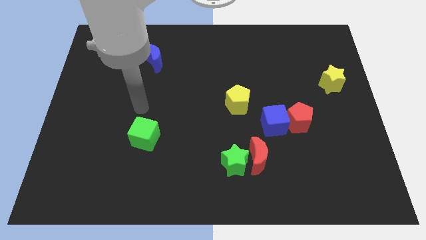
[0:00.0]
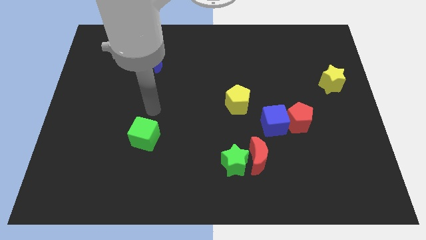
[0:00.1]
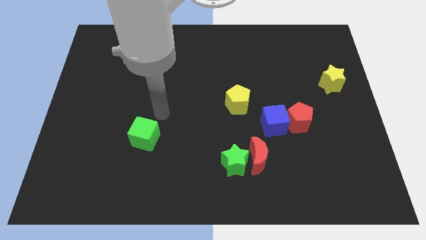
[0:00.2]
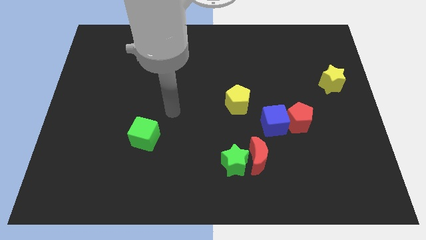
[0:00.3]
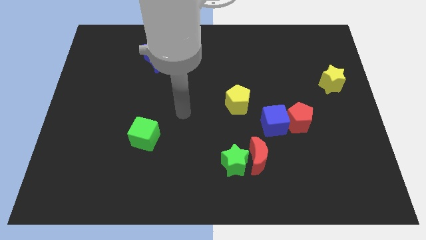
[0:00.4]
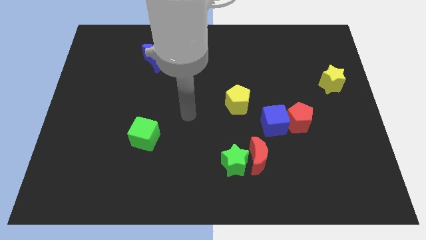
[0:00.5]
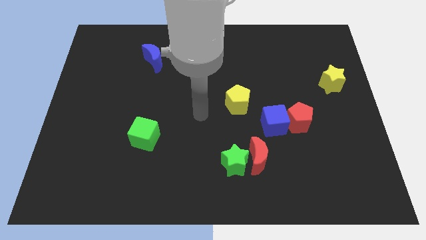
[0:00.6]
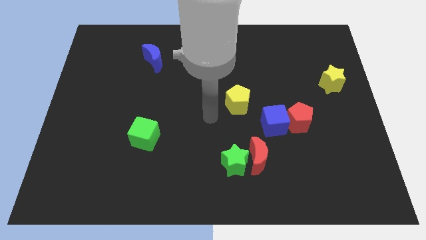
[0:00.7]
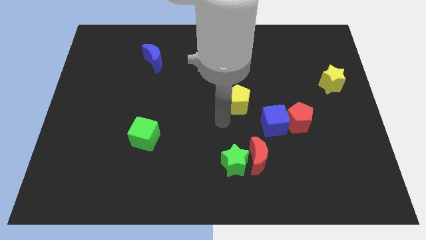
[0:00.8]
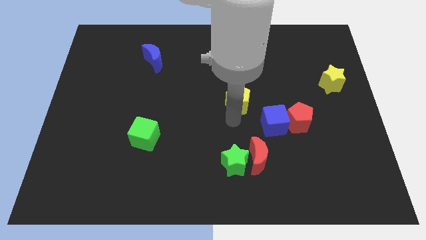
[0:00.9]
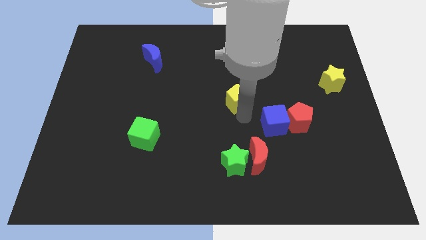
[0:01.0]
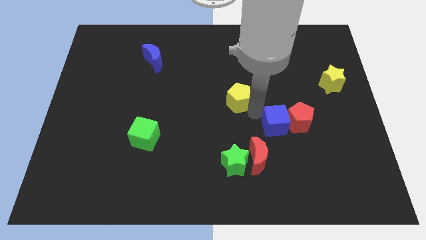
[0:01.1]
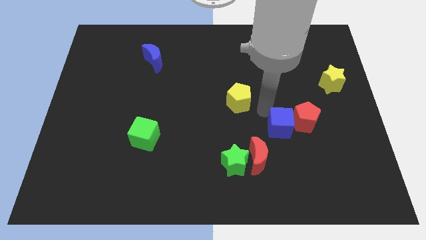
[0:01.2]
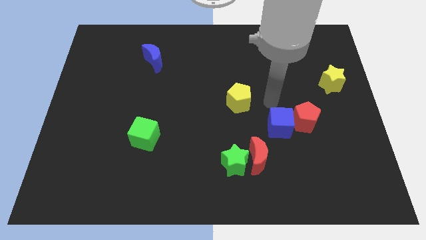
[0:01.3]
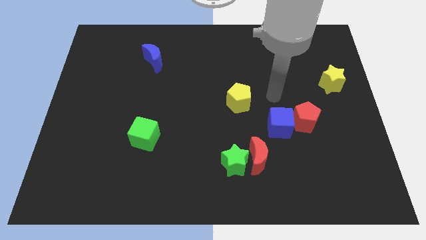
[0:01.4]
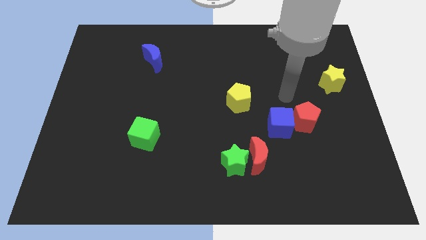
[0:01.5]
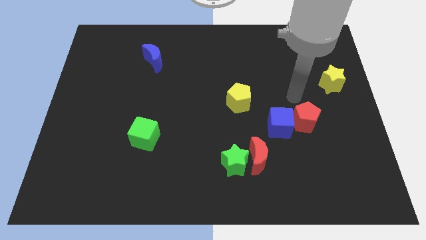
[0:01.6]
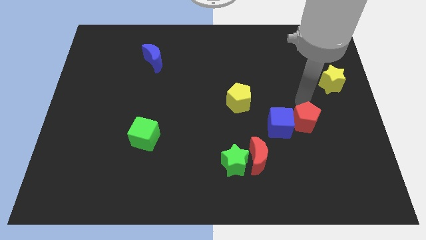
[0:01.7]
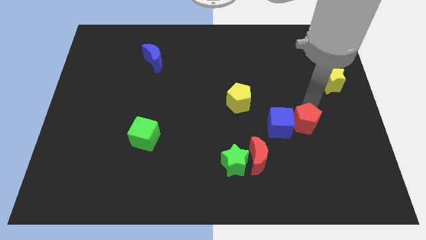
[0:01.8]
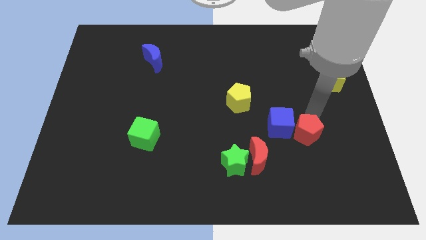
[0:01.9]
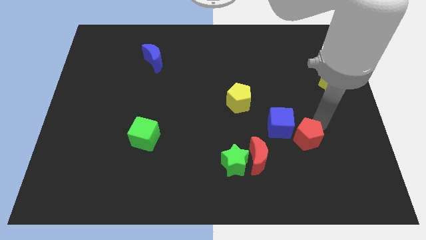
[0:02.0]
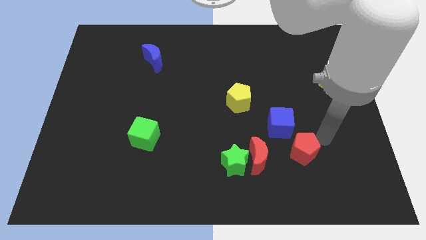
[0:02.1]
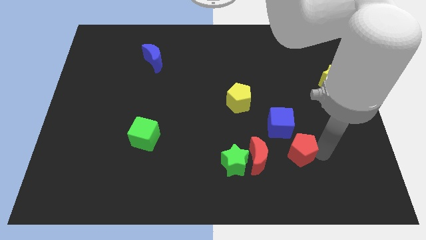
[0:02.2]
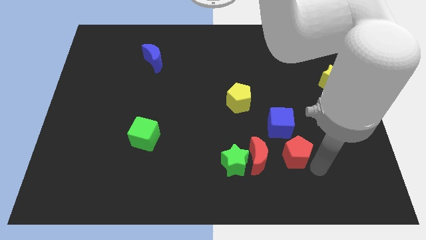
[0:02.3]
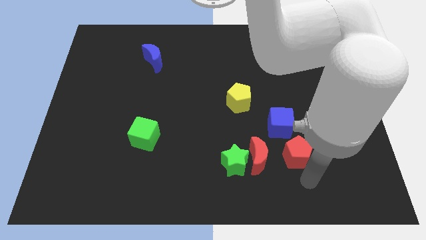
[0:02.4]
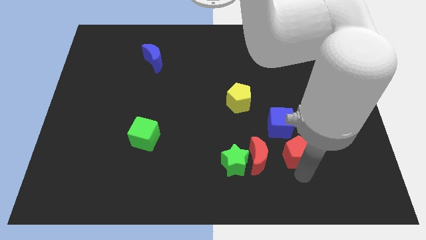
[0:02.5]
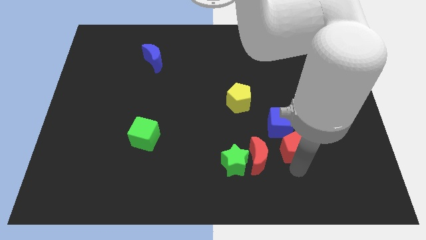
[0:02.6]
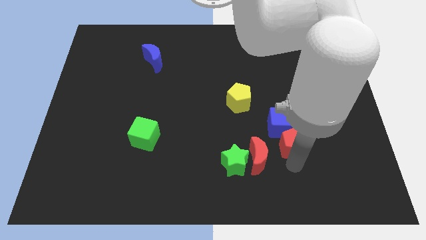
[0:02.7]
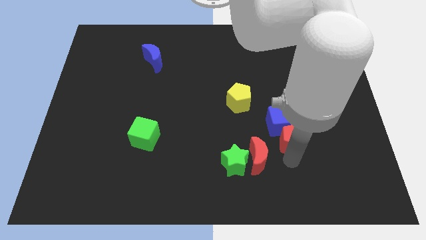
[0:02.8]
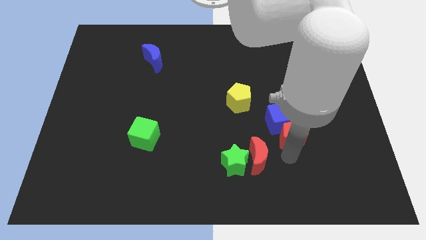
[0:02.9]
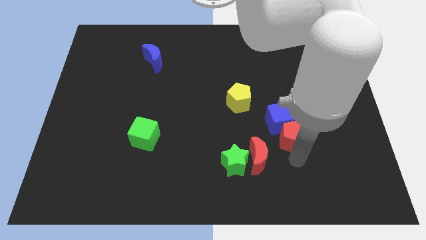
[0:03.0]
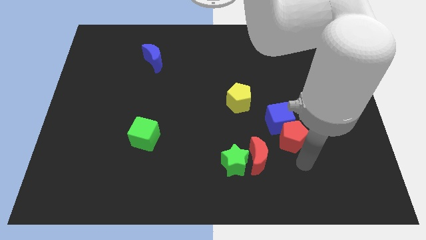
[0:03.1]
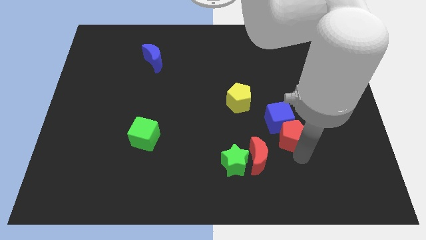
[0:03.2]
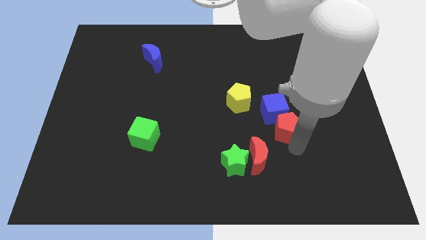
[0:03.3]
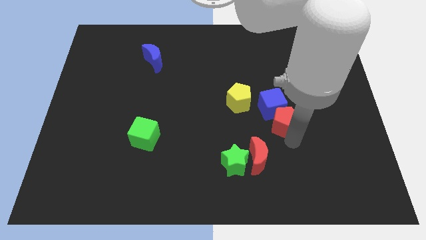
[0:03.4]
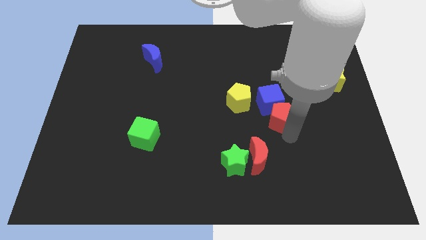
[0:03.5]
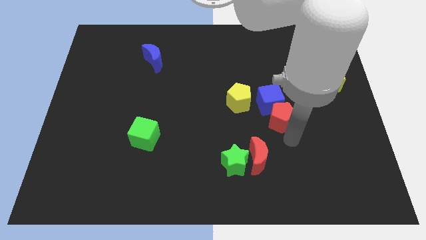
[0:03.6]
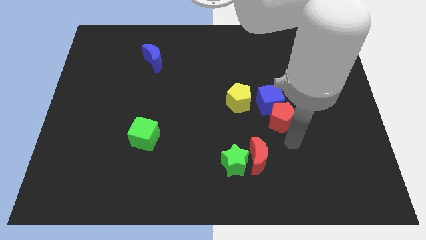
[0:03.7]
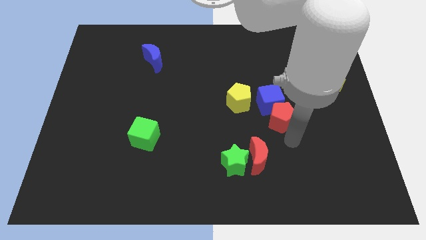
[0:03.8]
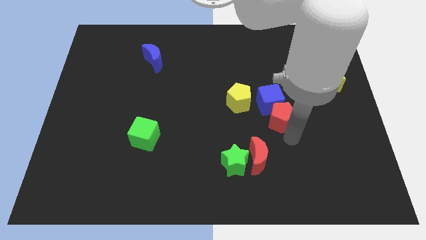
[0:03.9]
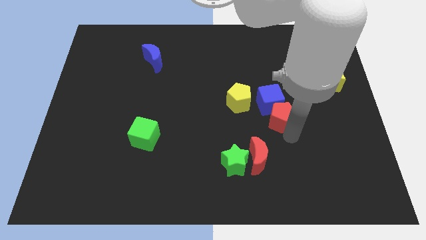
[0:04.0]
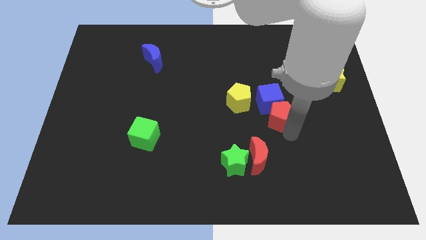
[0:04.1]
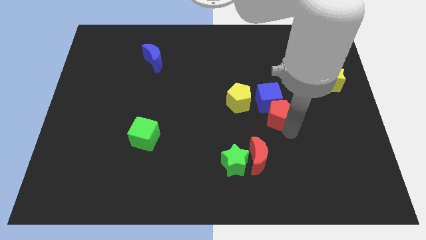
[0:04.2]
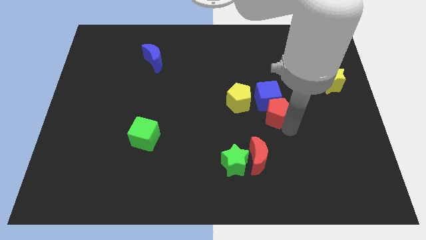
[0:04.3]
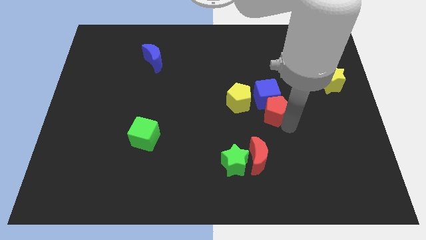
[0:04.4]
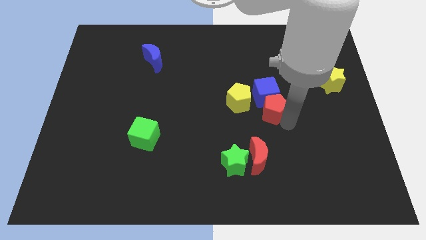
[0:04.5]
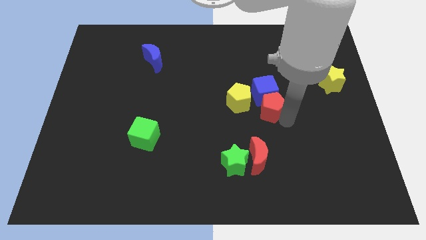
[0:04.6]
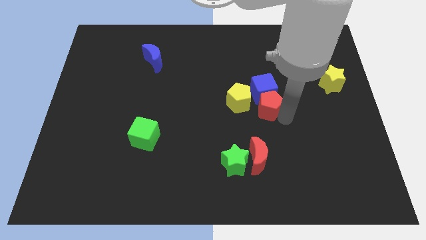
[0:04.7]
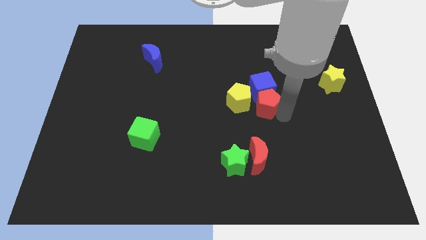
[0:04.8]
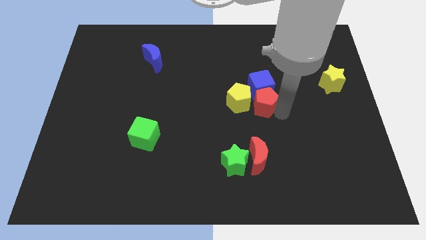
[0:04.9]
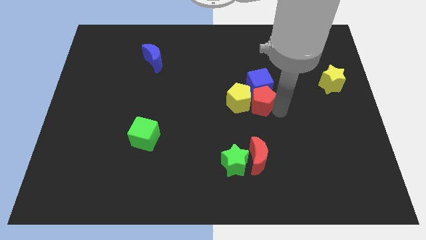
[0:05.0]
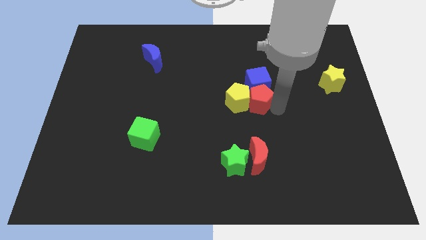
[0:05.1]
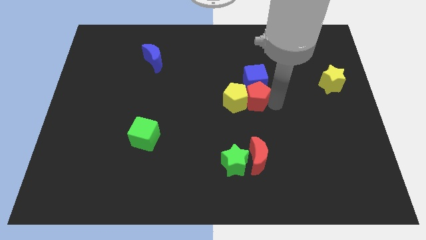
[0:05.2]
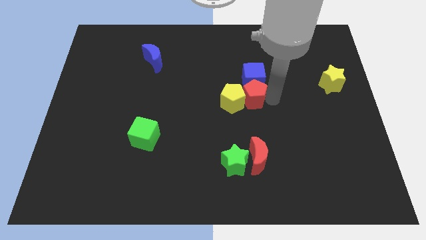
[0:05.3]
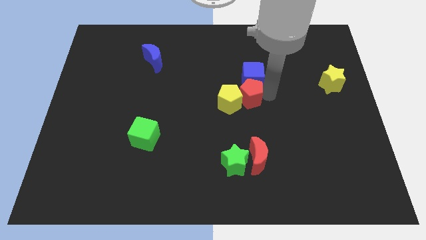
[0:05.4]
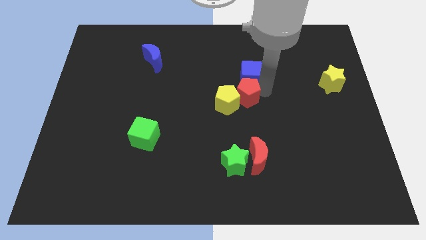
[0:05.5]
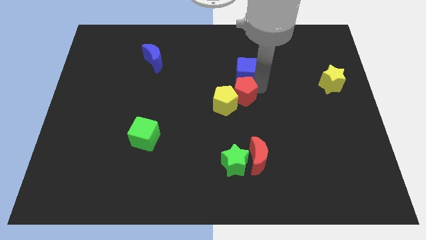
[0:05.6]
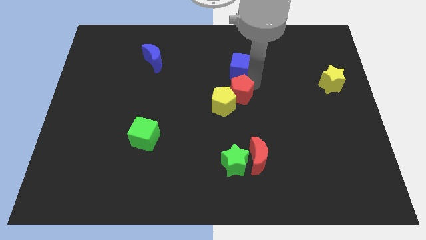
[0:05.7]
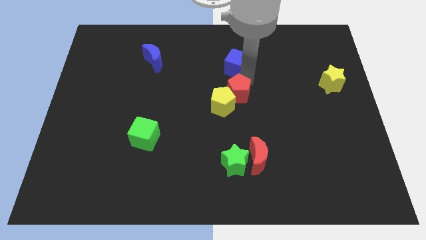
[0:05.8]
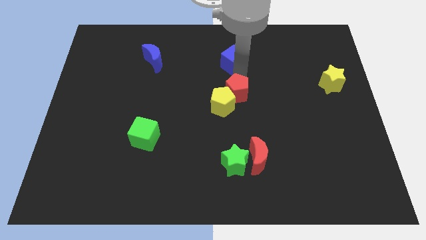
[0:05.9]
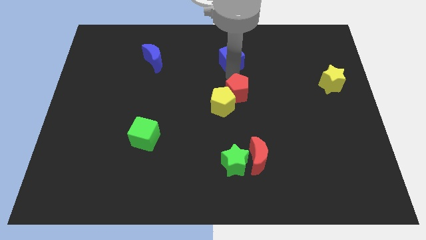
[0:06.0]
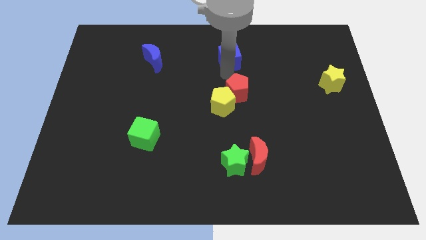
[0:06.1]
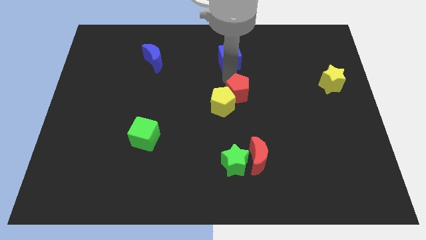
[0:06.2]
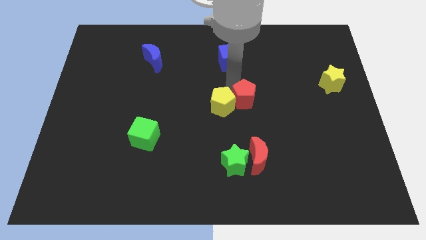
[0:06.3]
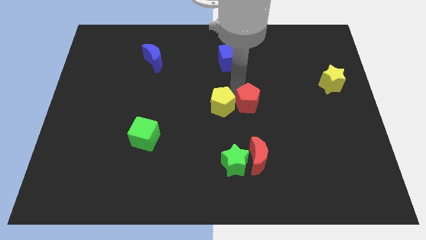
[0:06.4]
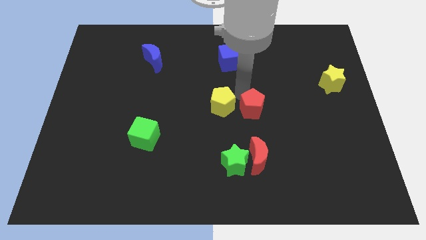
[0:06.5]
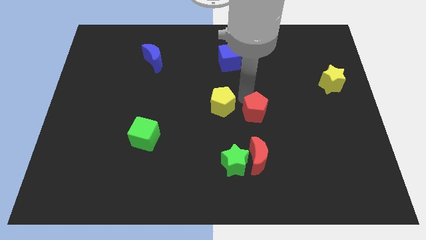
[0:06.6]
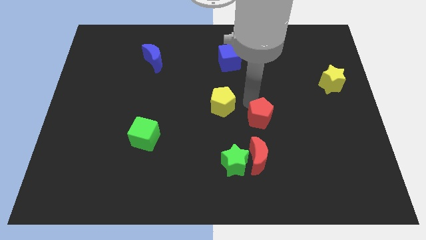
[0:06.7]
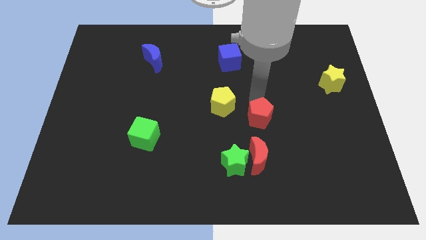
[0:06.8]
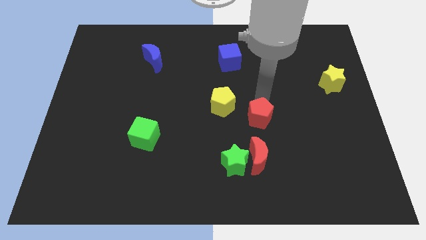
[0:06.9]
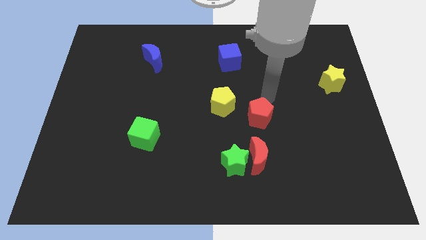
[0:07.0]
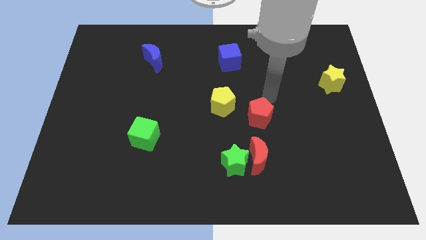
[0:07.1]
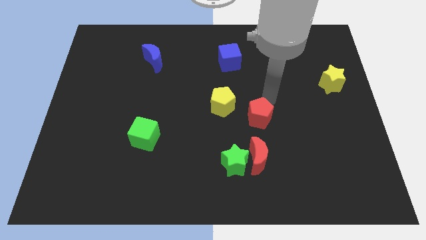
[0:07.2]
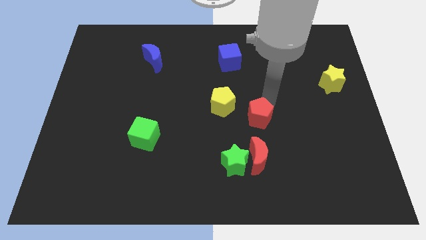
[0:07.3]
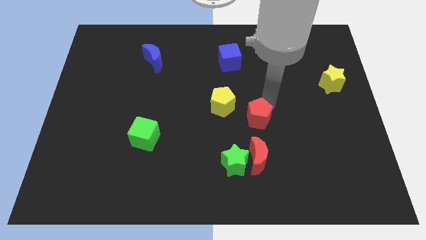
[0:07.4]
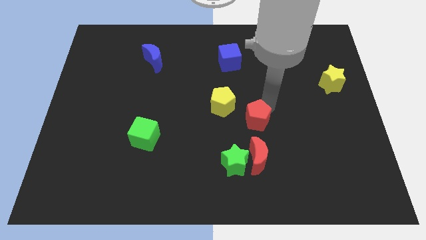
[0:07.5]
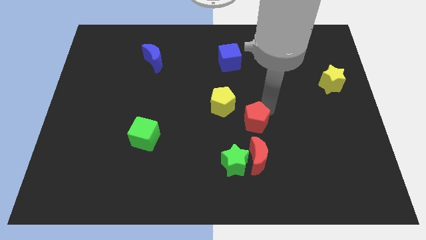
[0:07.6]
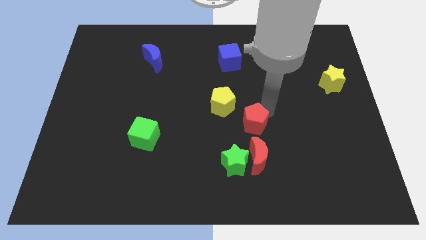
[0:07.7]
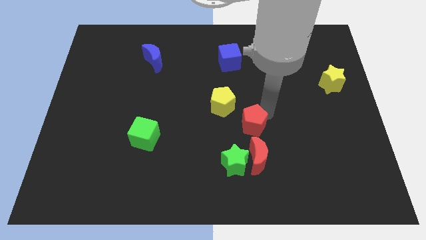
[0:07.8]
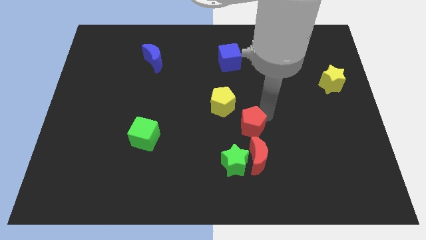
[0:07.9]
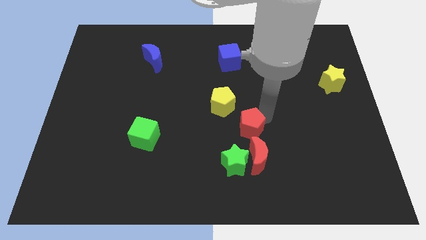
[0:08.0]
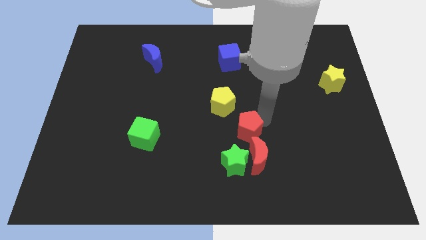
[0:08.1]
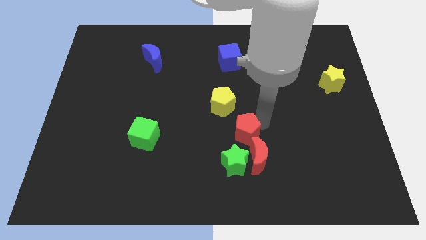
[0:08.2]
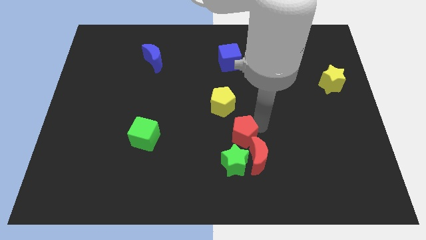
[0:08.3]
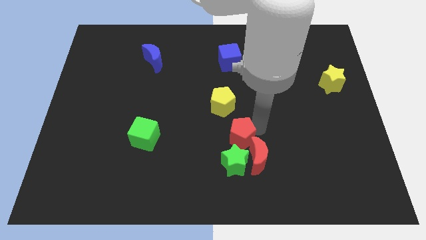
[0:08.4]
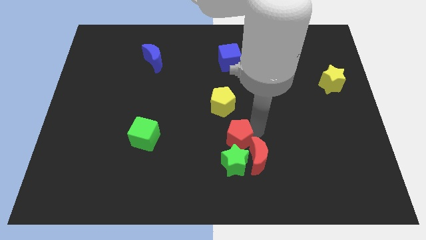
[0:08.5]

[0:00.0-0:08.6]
slide the red pentagon close to the green star
